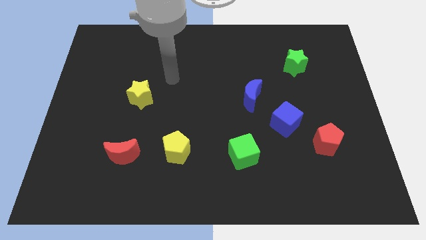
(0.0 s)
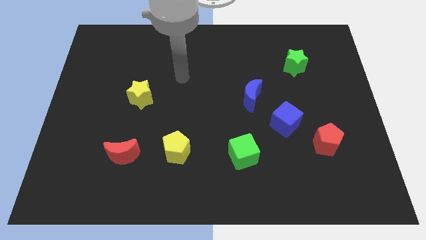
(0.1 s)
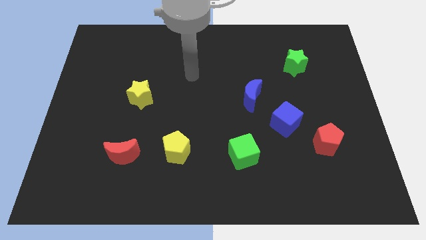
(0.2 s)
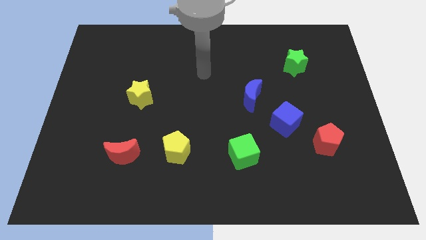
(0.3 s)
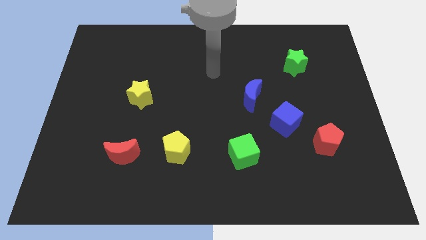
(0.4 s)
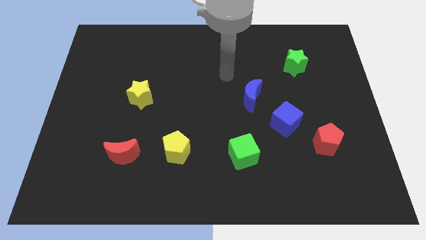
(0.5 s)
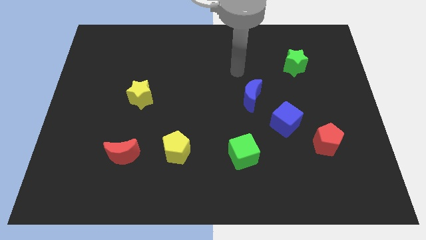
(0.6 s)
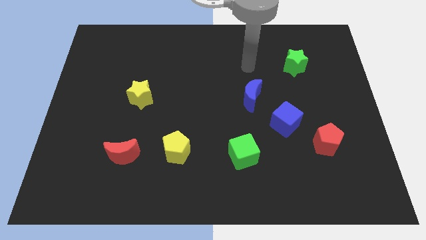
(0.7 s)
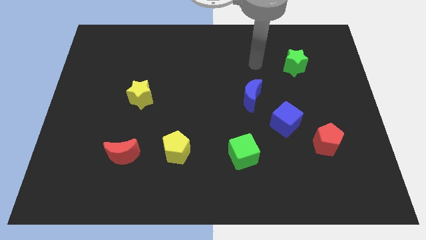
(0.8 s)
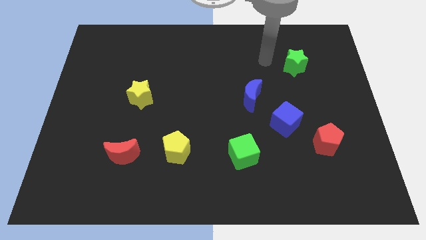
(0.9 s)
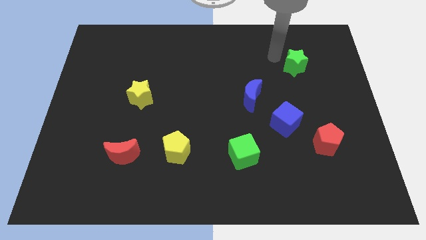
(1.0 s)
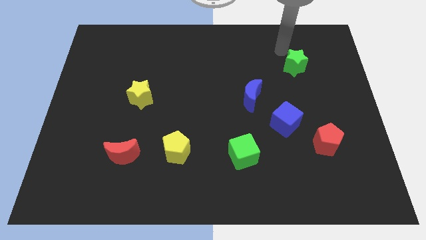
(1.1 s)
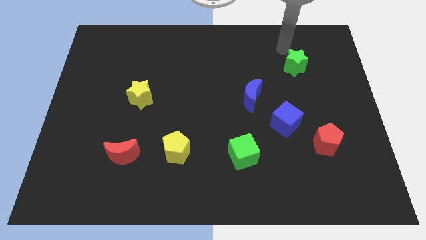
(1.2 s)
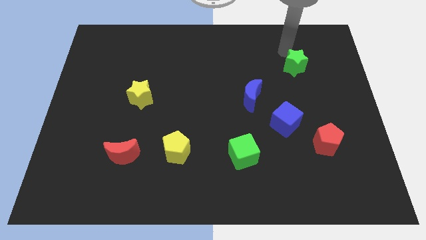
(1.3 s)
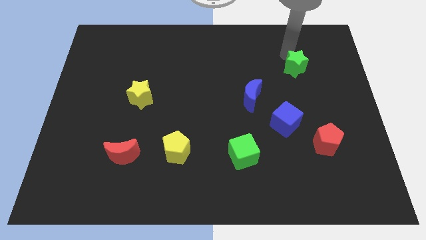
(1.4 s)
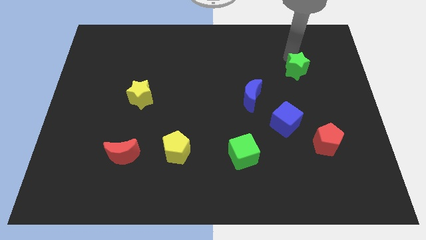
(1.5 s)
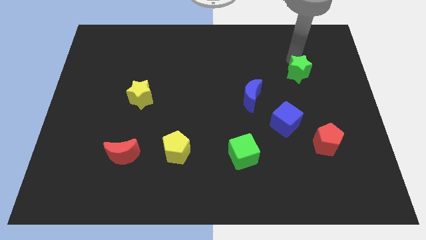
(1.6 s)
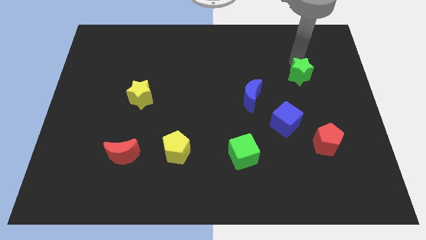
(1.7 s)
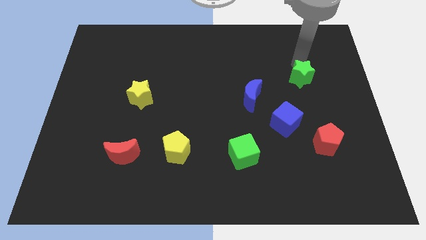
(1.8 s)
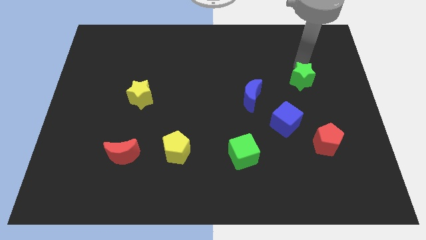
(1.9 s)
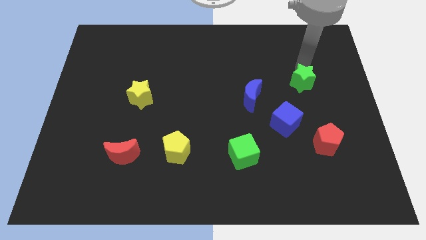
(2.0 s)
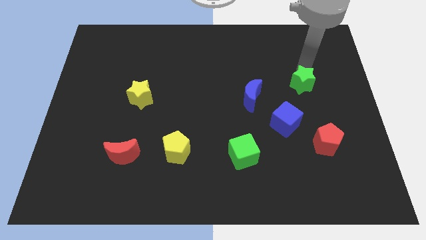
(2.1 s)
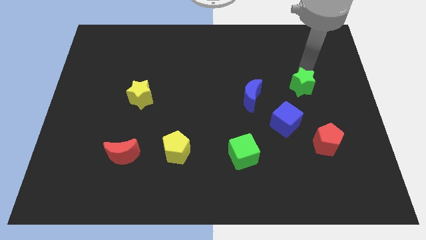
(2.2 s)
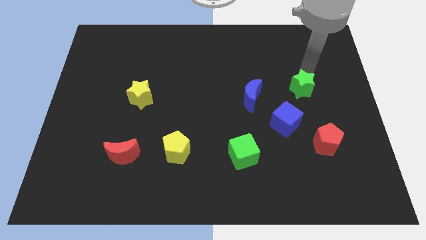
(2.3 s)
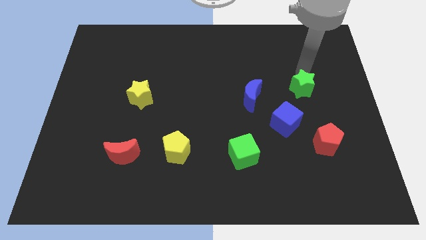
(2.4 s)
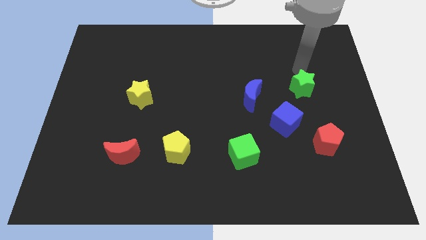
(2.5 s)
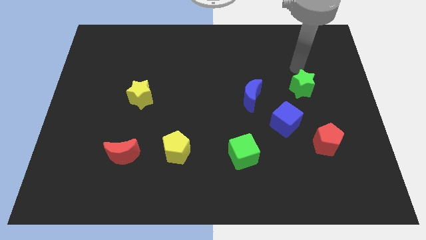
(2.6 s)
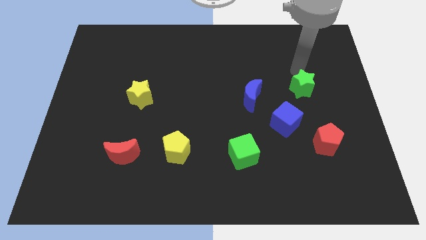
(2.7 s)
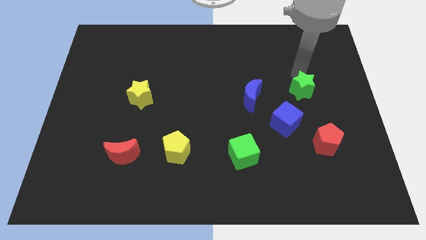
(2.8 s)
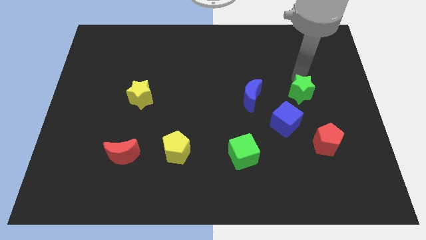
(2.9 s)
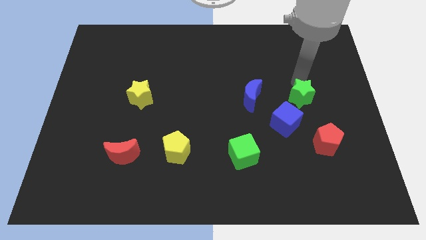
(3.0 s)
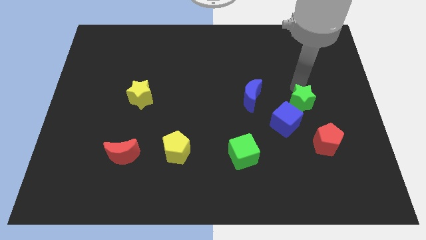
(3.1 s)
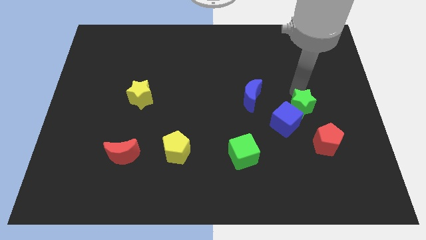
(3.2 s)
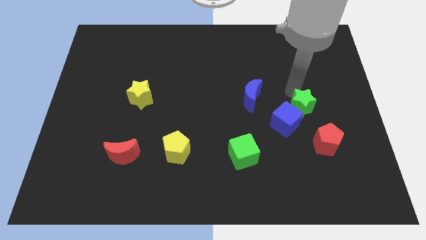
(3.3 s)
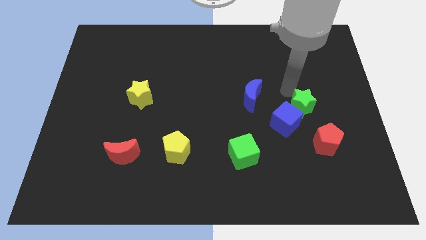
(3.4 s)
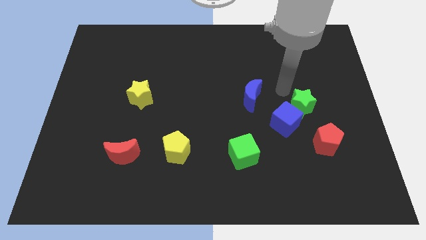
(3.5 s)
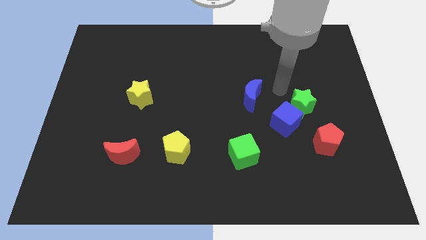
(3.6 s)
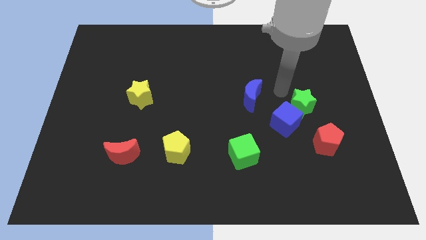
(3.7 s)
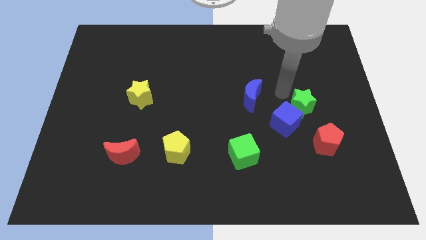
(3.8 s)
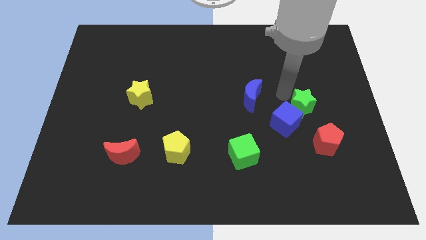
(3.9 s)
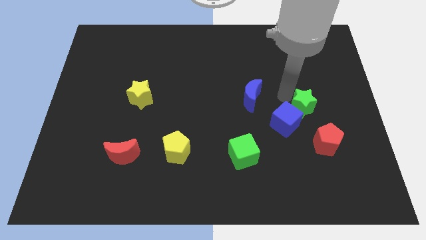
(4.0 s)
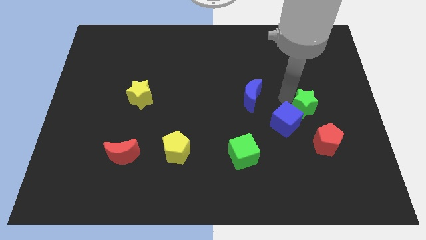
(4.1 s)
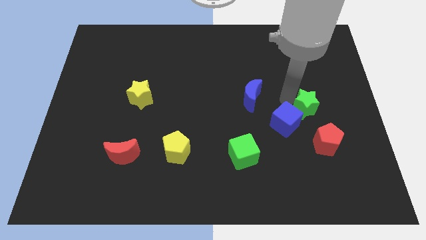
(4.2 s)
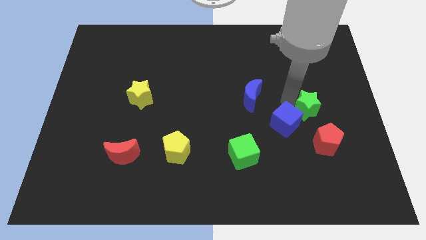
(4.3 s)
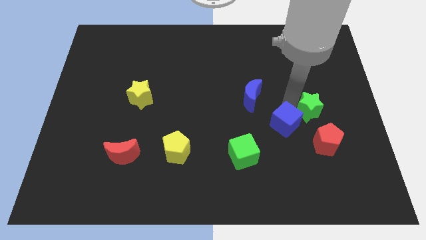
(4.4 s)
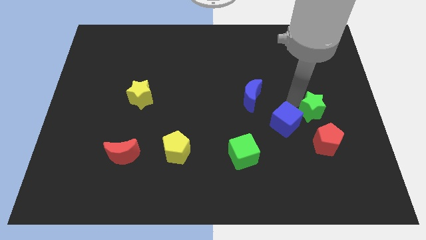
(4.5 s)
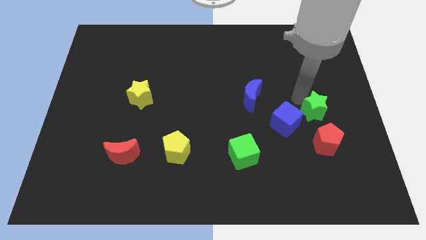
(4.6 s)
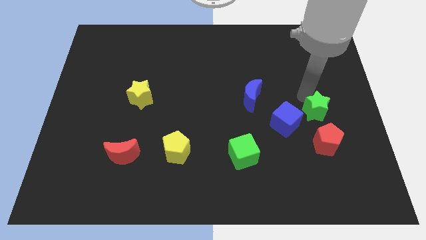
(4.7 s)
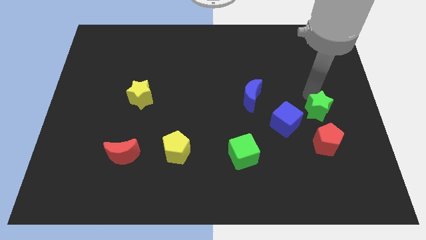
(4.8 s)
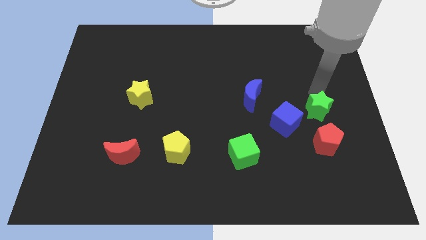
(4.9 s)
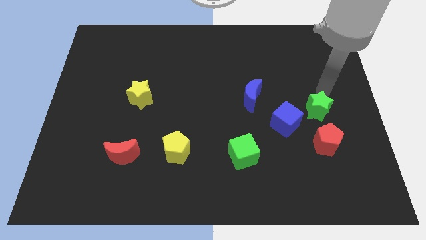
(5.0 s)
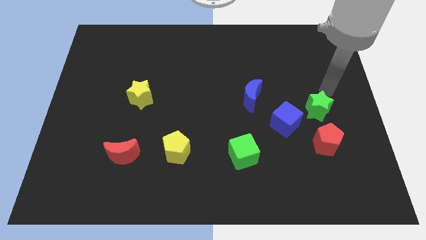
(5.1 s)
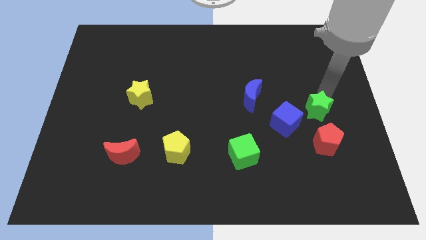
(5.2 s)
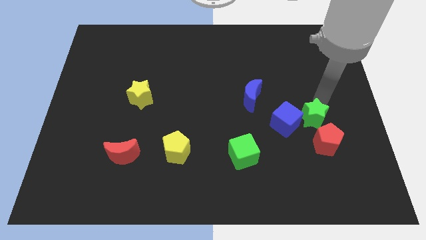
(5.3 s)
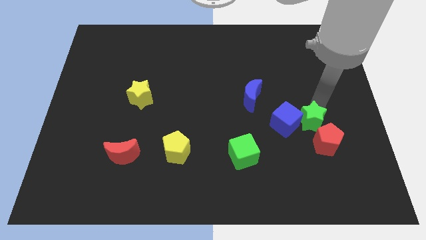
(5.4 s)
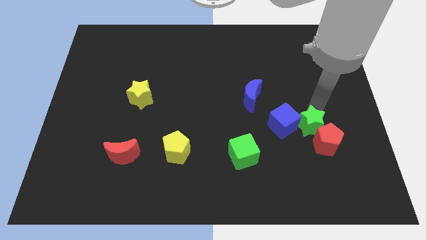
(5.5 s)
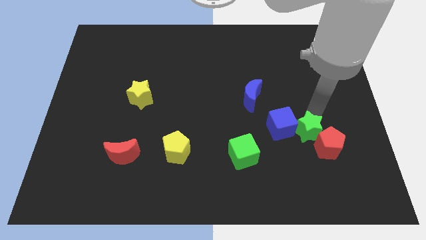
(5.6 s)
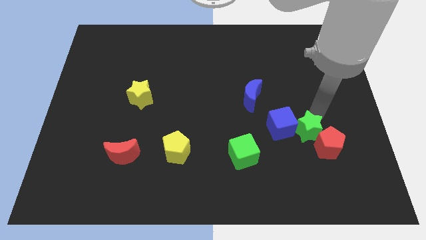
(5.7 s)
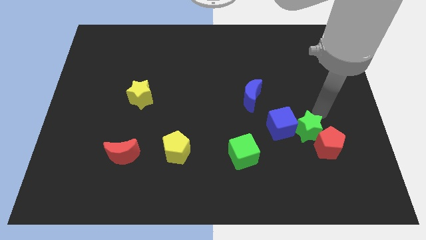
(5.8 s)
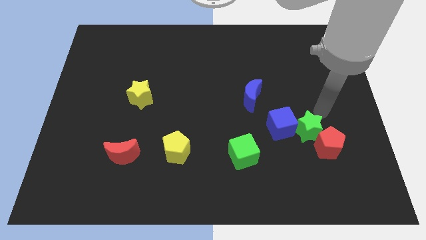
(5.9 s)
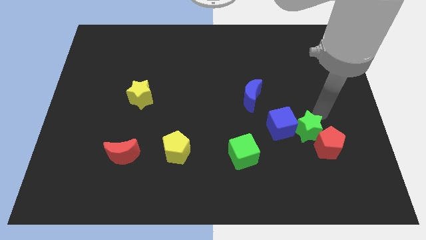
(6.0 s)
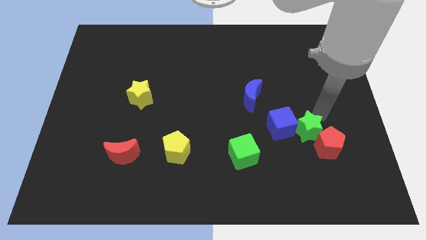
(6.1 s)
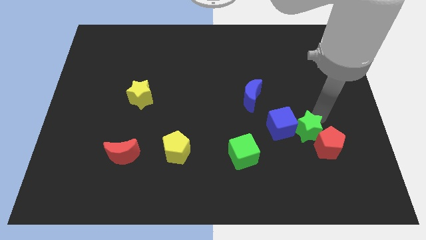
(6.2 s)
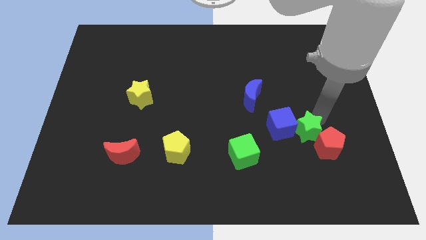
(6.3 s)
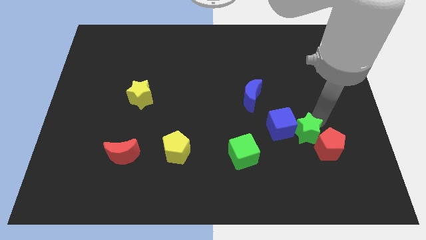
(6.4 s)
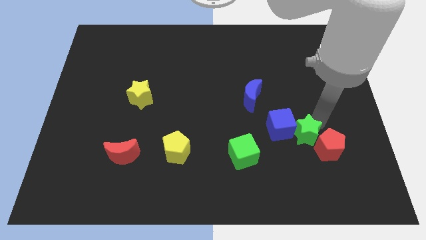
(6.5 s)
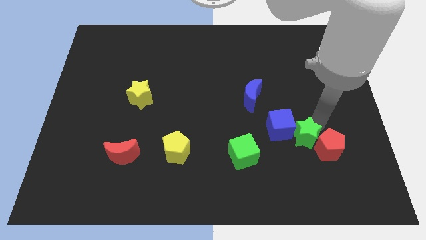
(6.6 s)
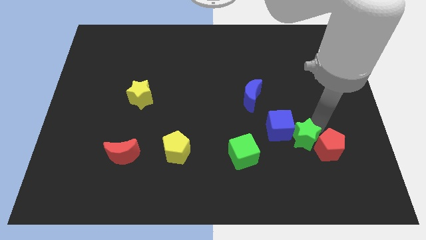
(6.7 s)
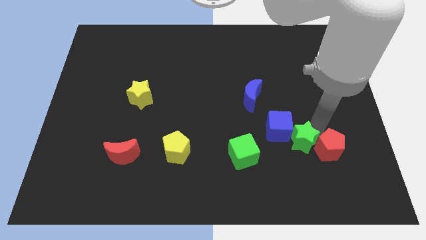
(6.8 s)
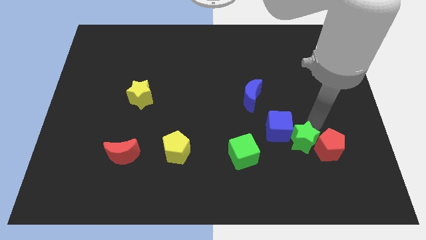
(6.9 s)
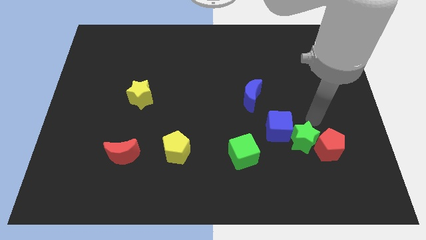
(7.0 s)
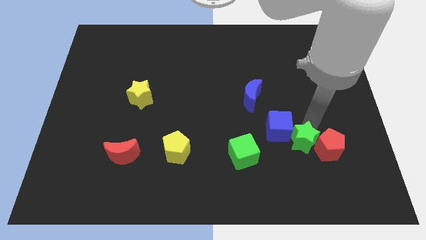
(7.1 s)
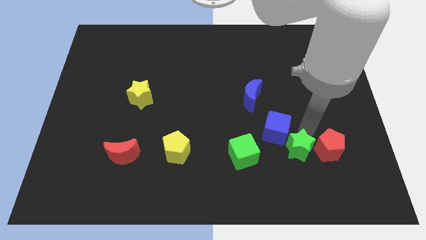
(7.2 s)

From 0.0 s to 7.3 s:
move the green star below the blue cube
